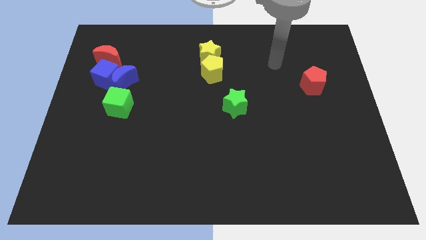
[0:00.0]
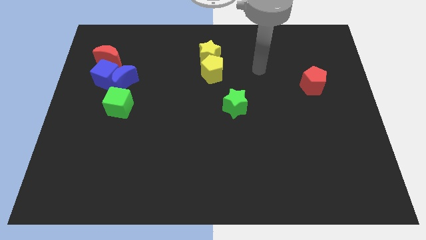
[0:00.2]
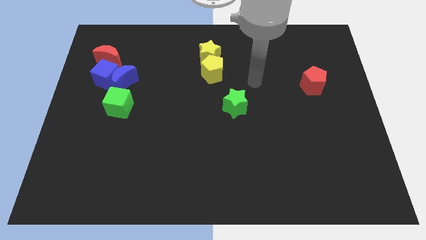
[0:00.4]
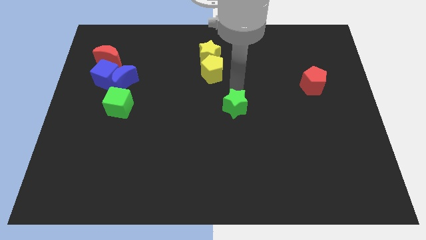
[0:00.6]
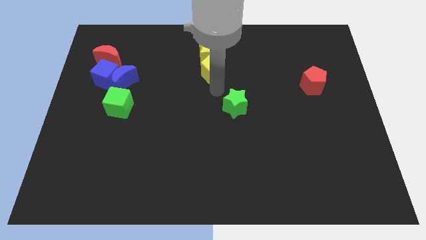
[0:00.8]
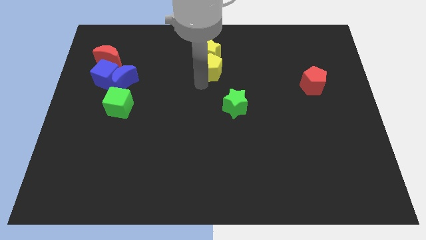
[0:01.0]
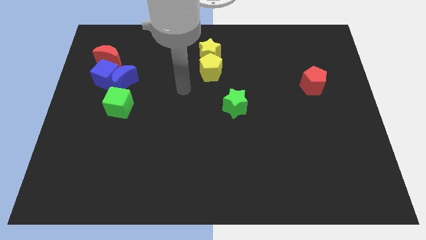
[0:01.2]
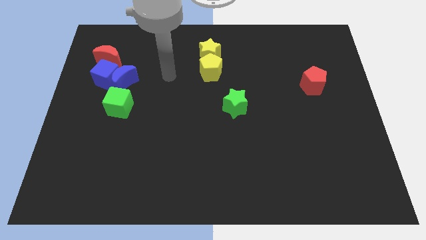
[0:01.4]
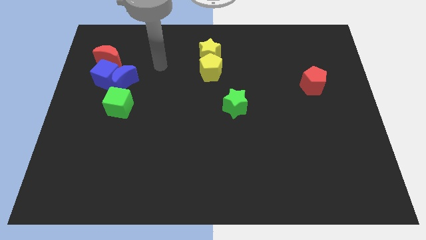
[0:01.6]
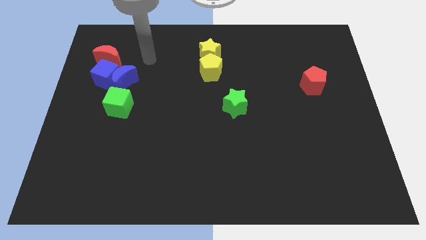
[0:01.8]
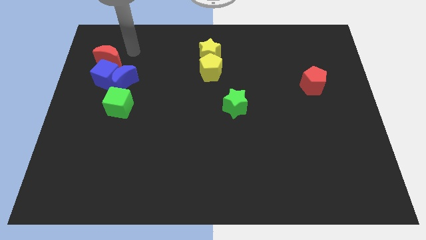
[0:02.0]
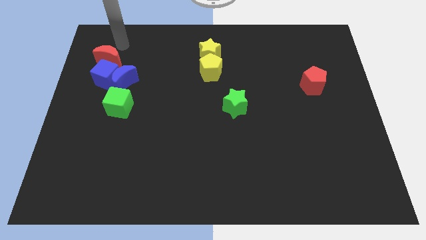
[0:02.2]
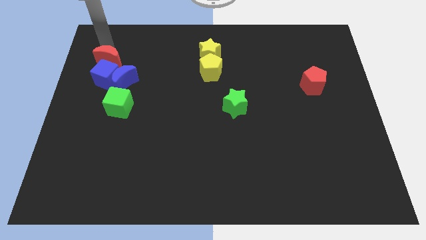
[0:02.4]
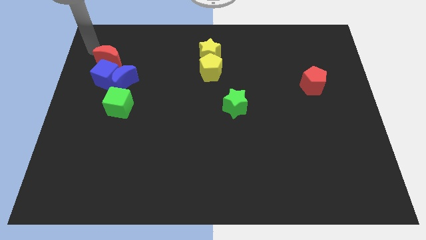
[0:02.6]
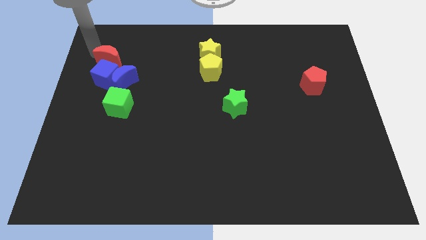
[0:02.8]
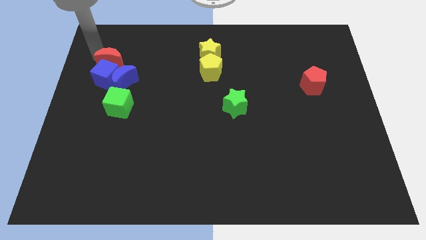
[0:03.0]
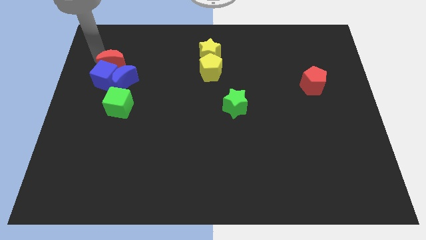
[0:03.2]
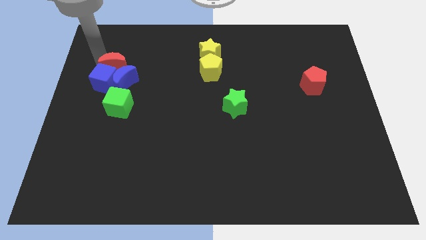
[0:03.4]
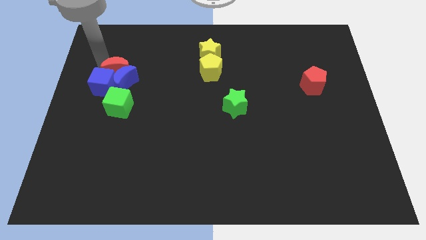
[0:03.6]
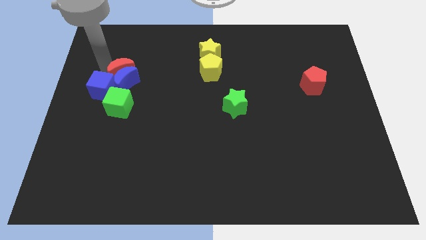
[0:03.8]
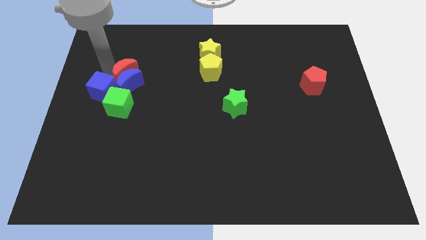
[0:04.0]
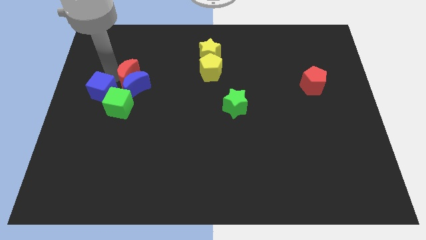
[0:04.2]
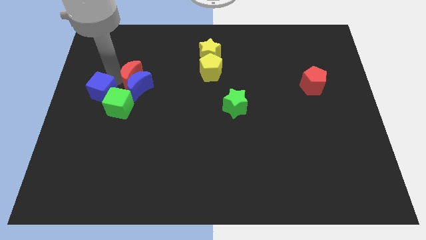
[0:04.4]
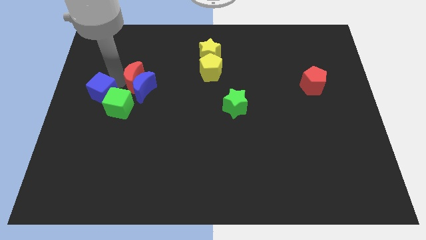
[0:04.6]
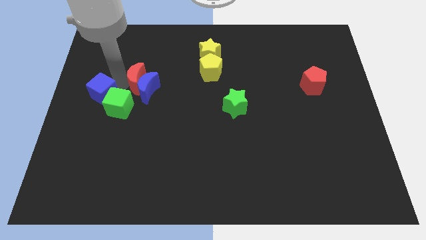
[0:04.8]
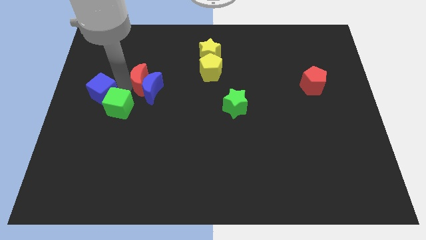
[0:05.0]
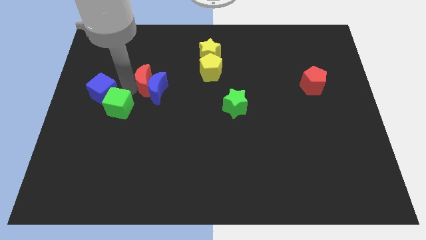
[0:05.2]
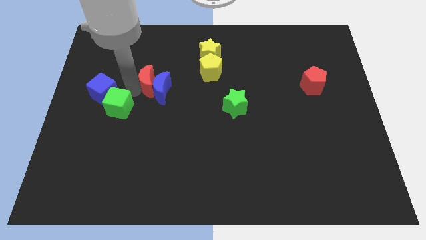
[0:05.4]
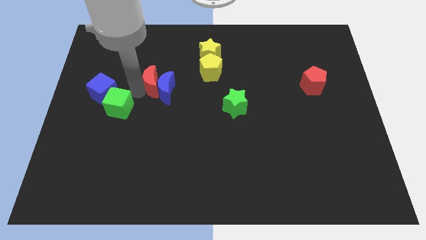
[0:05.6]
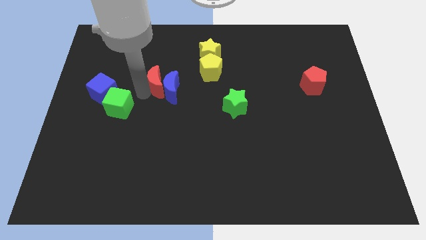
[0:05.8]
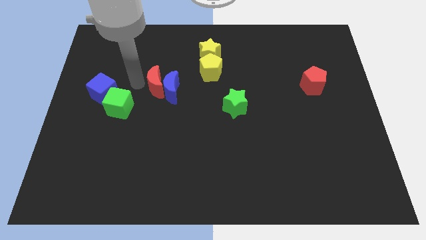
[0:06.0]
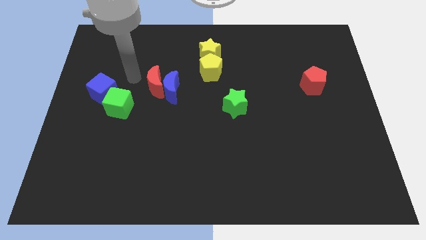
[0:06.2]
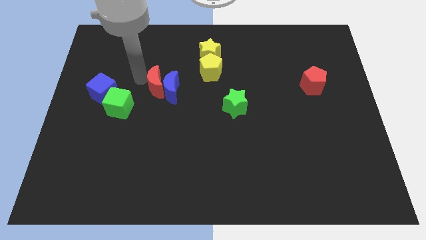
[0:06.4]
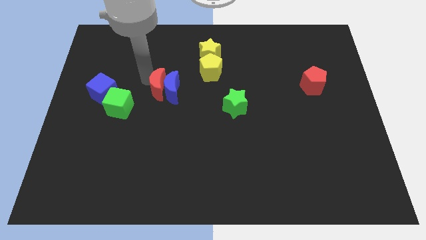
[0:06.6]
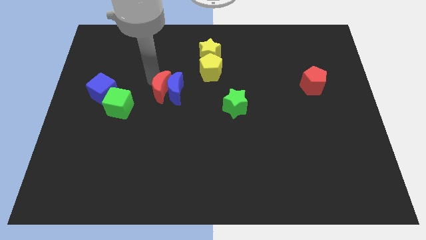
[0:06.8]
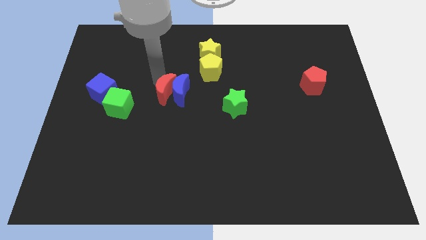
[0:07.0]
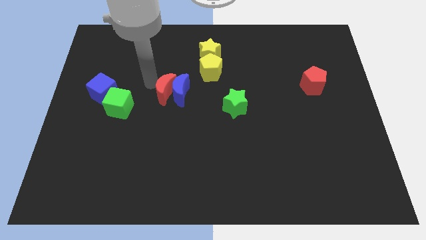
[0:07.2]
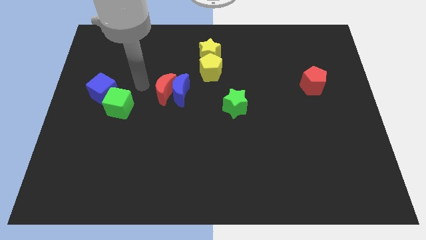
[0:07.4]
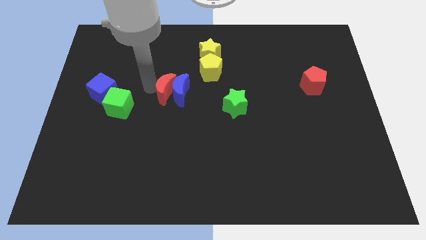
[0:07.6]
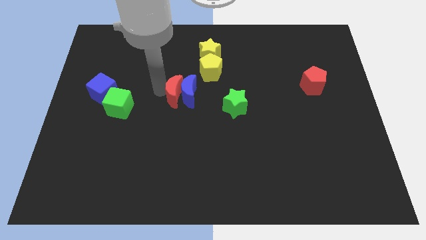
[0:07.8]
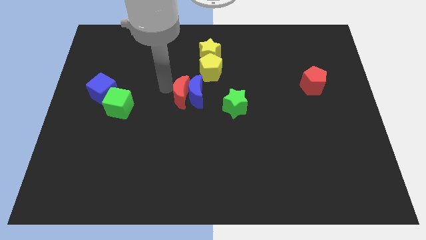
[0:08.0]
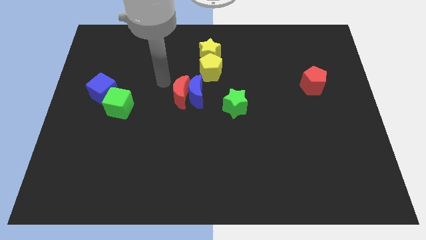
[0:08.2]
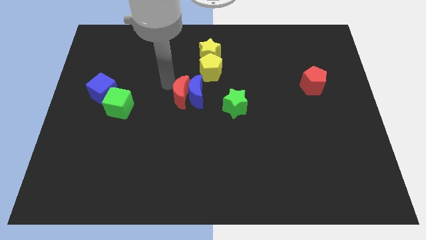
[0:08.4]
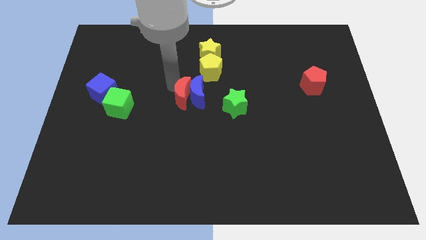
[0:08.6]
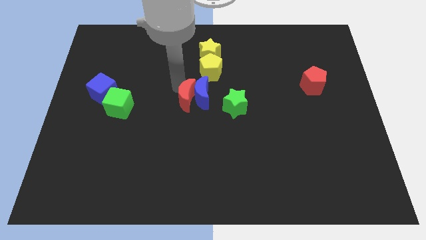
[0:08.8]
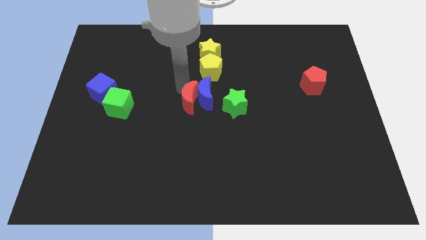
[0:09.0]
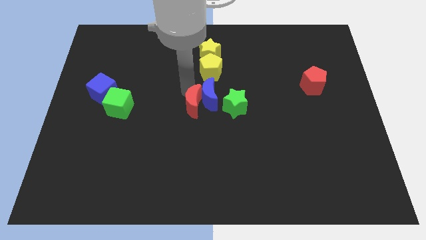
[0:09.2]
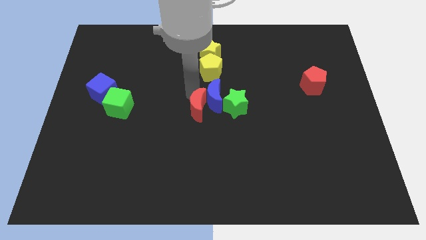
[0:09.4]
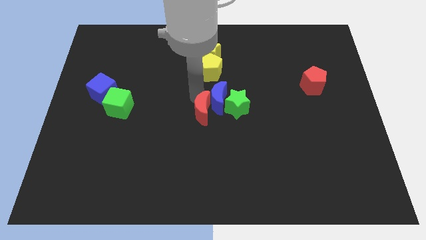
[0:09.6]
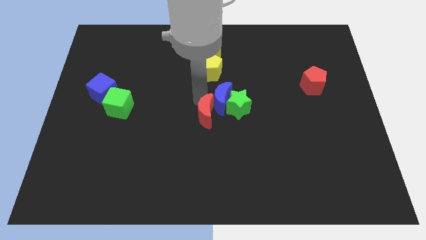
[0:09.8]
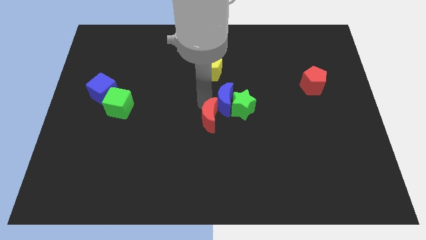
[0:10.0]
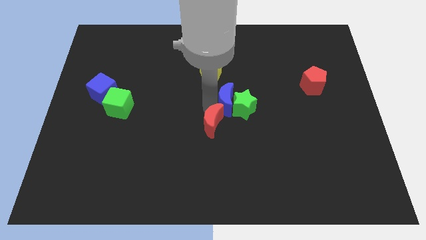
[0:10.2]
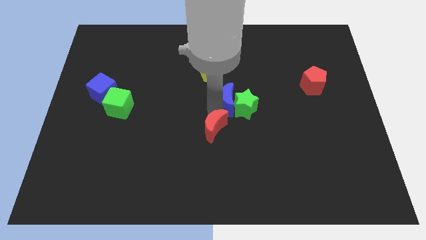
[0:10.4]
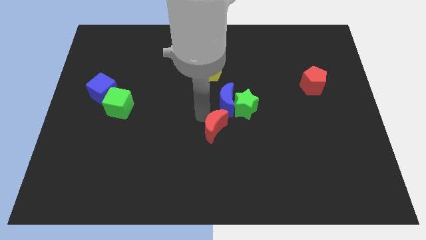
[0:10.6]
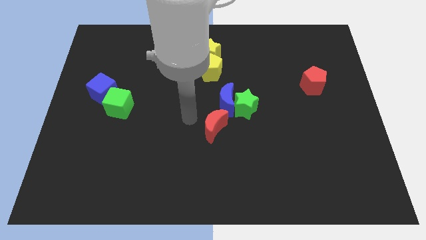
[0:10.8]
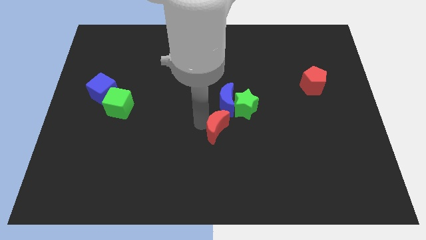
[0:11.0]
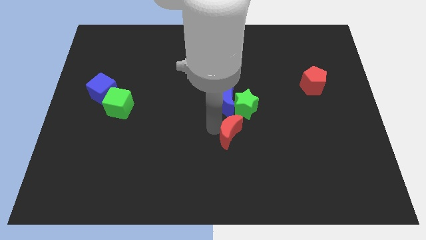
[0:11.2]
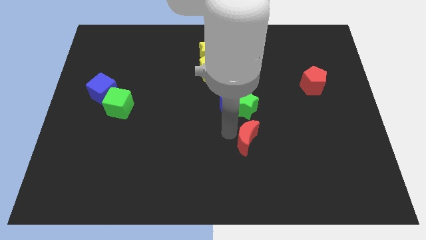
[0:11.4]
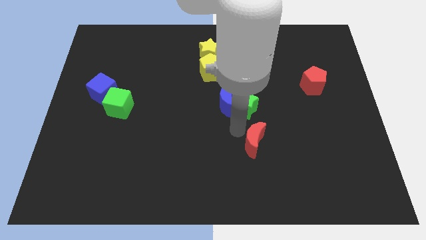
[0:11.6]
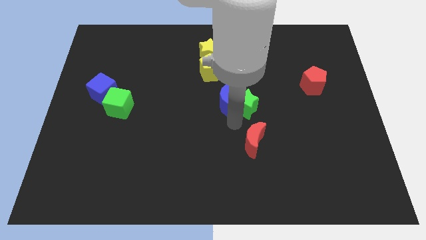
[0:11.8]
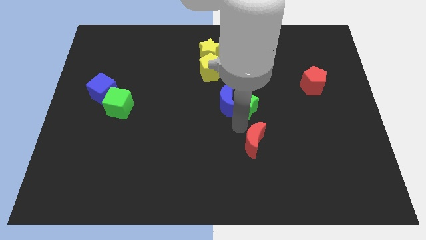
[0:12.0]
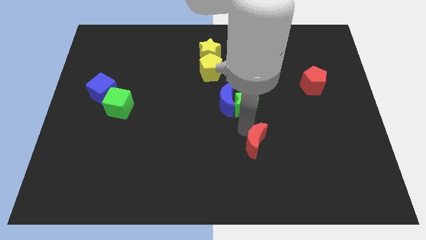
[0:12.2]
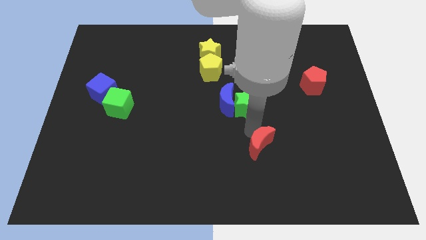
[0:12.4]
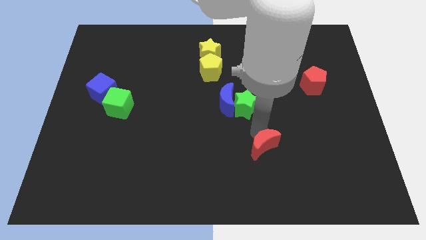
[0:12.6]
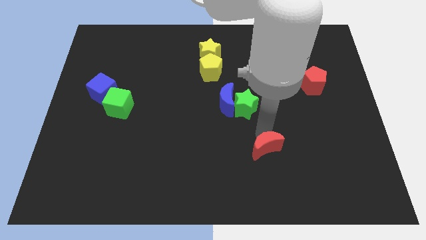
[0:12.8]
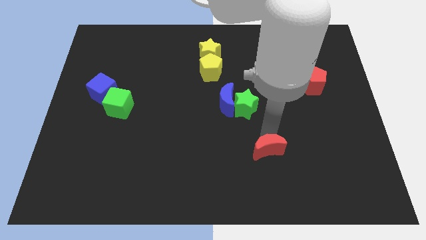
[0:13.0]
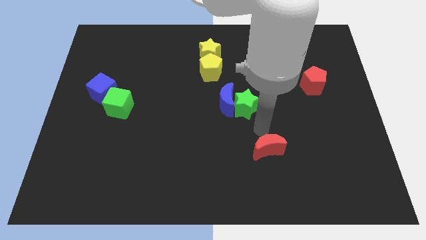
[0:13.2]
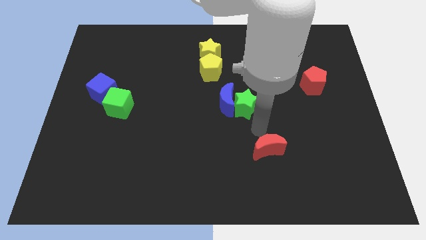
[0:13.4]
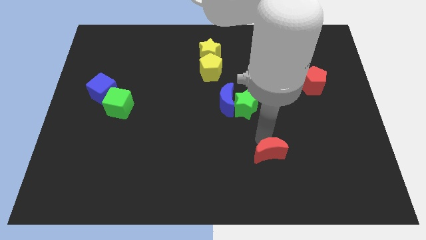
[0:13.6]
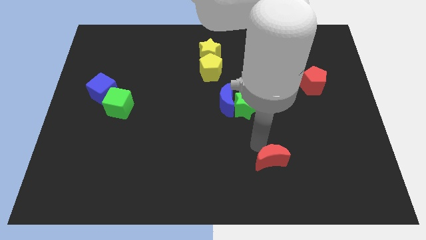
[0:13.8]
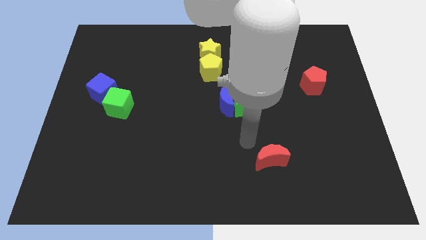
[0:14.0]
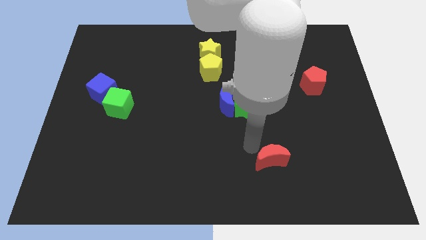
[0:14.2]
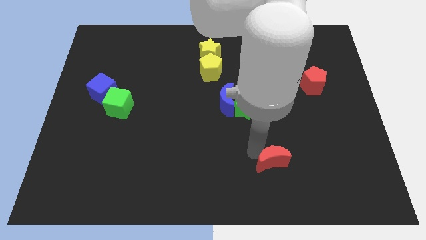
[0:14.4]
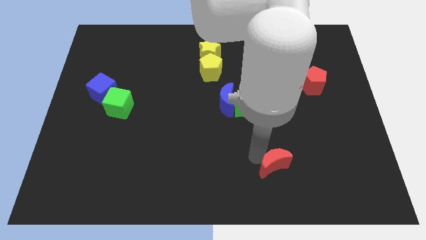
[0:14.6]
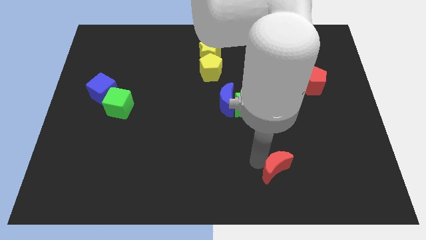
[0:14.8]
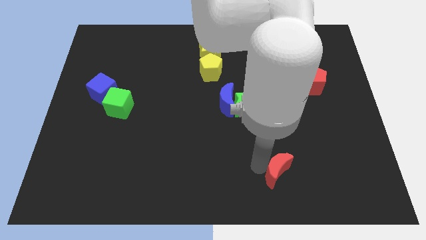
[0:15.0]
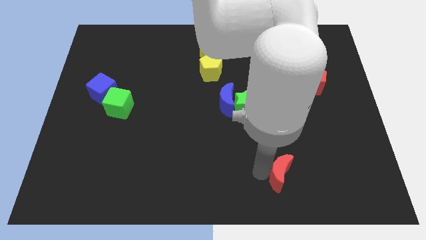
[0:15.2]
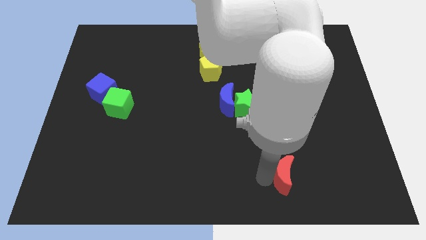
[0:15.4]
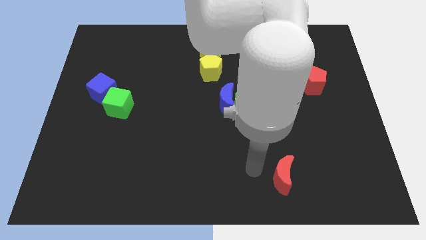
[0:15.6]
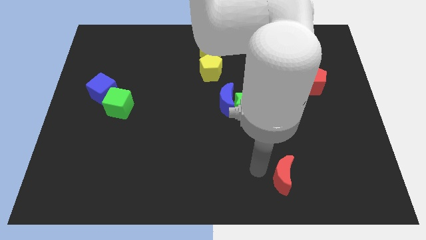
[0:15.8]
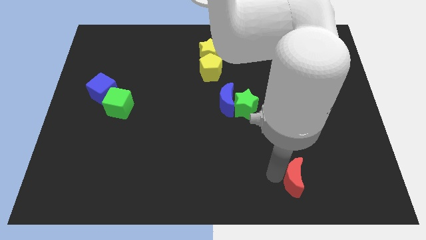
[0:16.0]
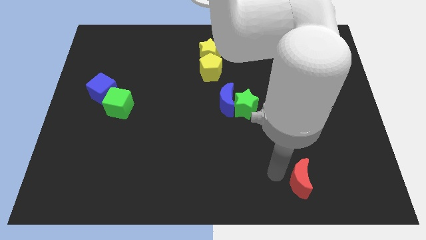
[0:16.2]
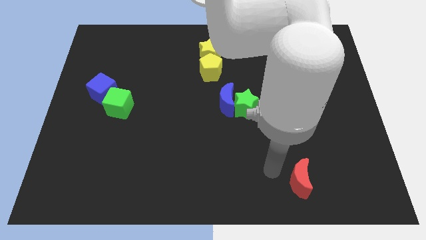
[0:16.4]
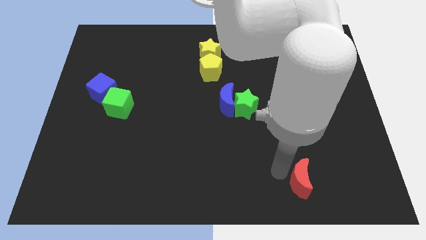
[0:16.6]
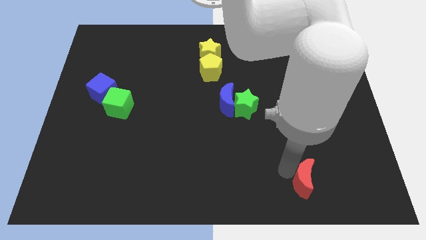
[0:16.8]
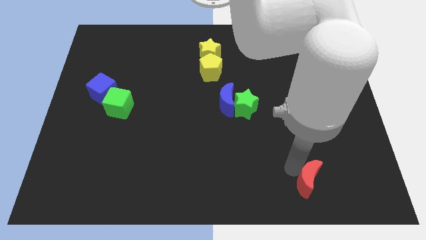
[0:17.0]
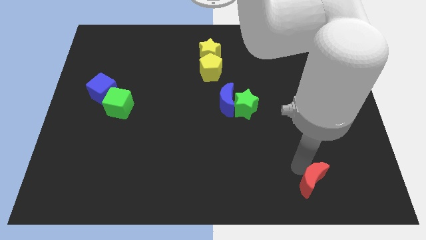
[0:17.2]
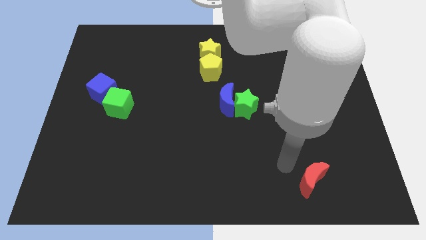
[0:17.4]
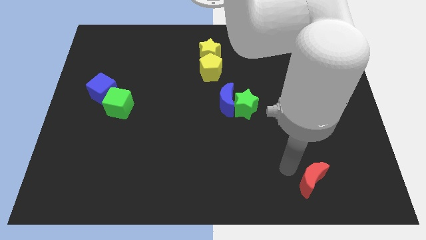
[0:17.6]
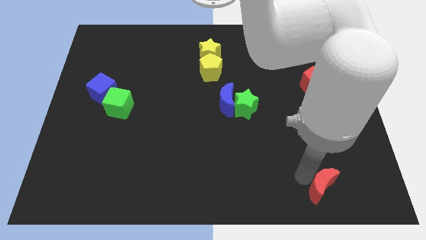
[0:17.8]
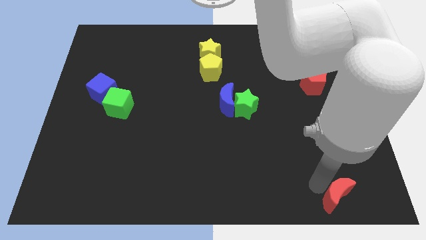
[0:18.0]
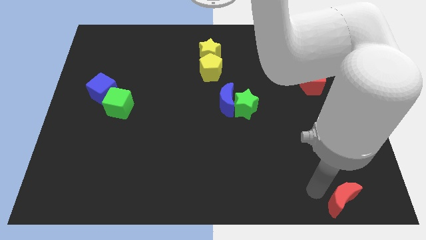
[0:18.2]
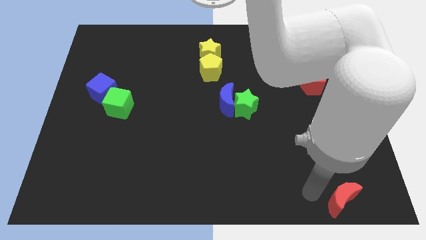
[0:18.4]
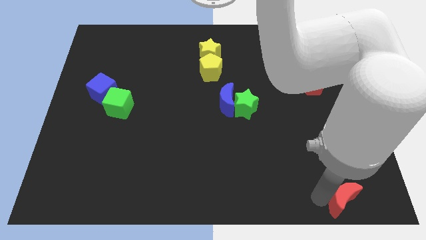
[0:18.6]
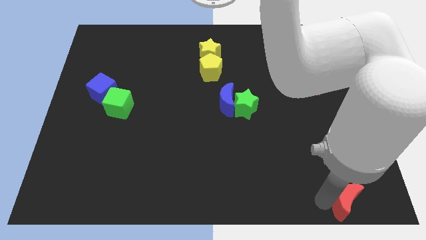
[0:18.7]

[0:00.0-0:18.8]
move the red moon to the bottom right
